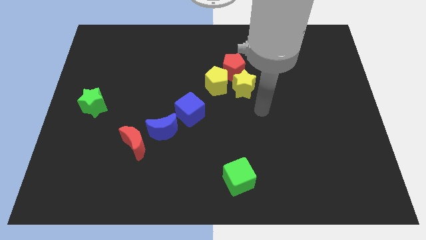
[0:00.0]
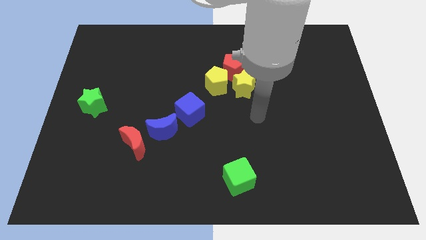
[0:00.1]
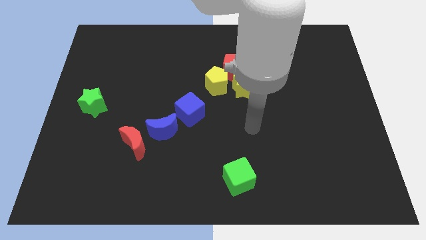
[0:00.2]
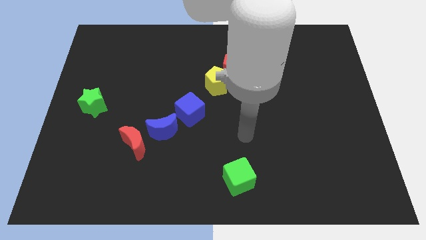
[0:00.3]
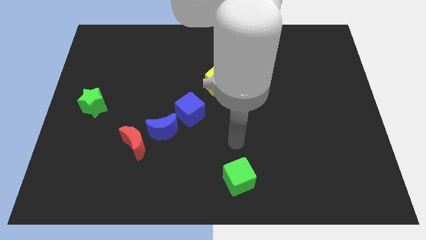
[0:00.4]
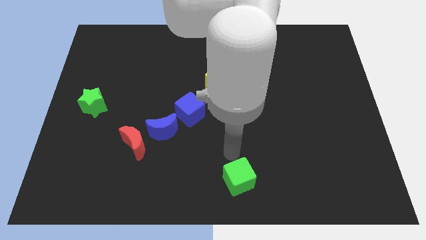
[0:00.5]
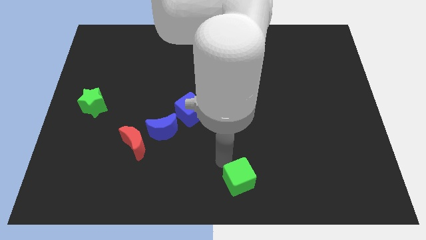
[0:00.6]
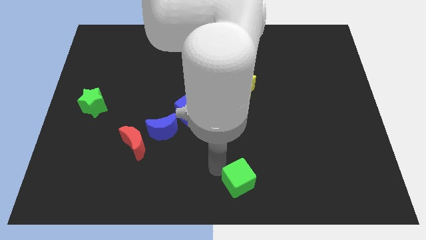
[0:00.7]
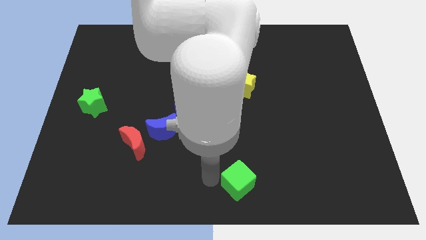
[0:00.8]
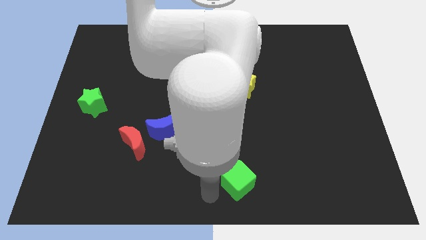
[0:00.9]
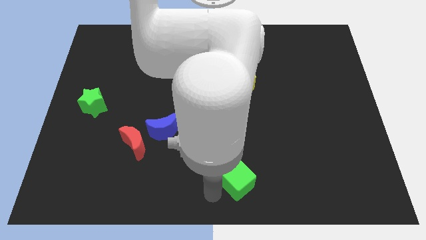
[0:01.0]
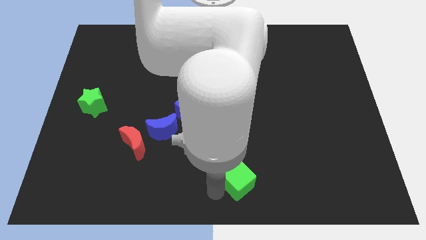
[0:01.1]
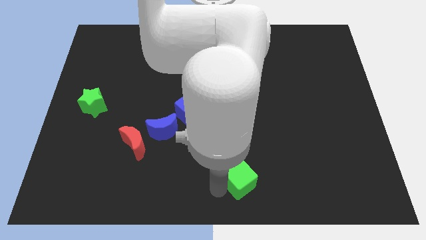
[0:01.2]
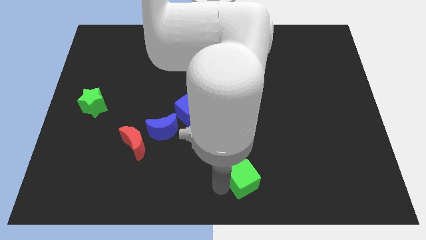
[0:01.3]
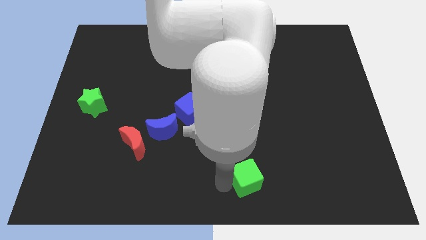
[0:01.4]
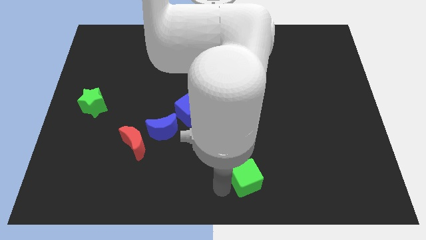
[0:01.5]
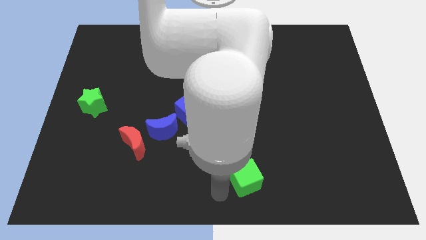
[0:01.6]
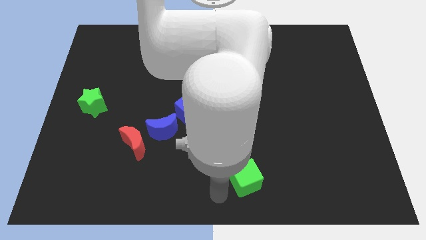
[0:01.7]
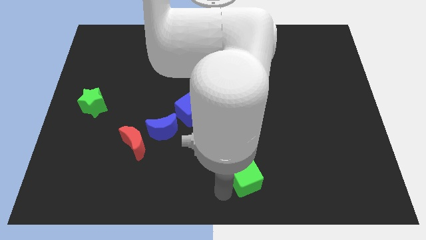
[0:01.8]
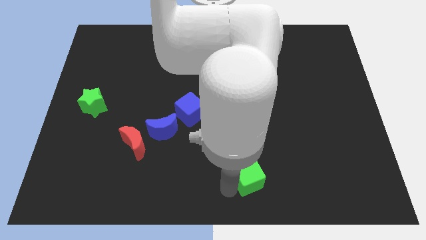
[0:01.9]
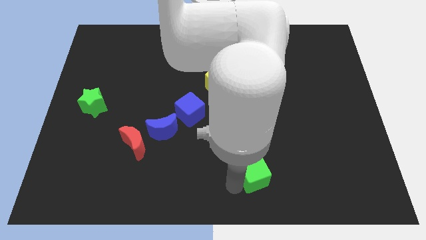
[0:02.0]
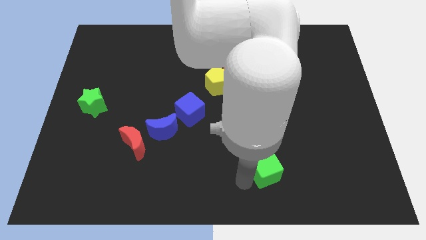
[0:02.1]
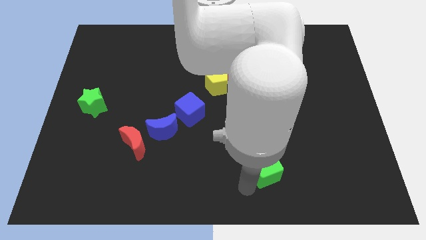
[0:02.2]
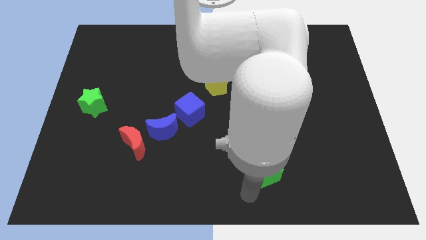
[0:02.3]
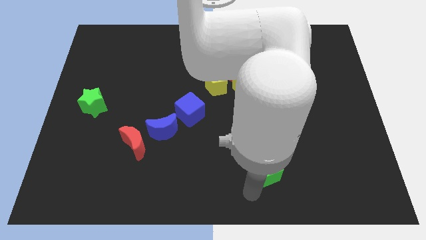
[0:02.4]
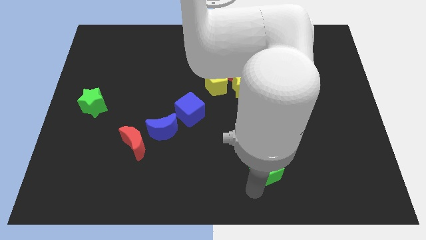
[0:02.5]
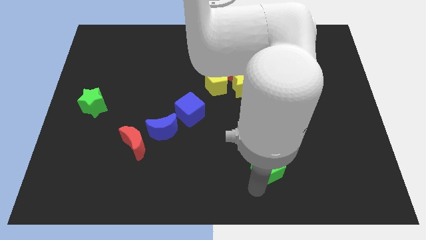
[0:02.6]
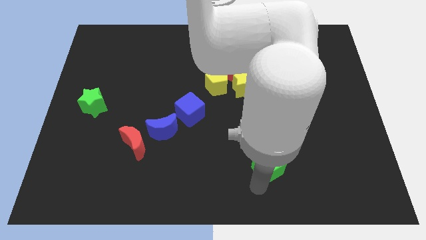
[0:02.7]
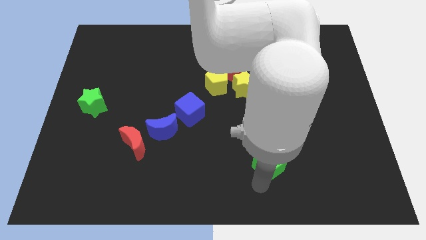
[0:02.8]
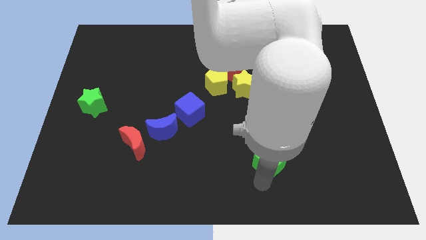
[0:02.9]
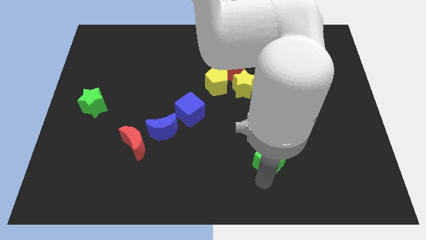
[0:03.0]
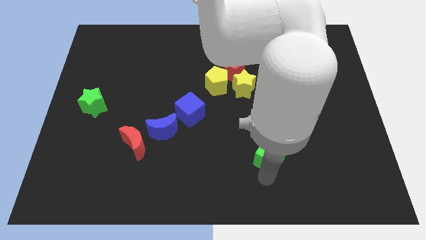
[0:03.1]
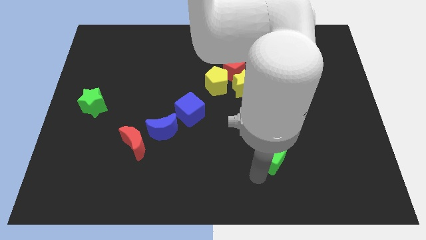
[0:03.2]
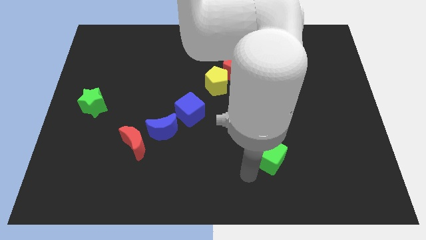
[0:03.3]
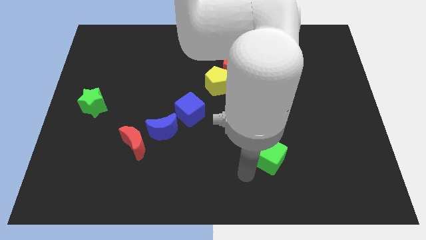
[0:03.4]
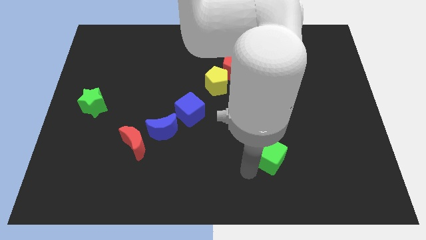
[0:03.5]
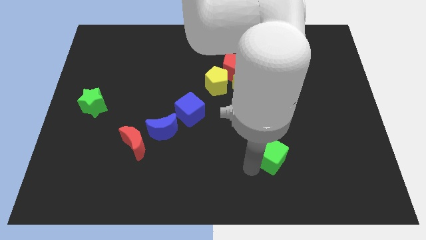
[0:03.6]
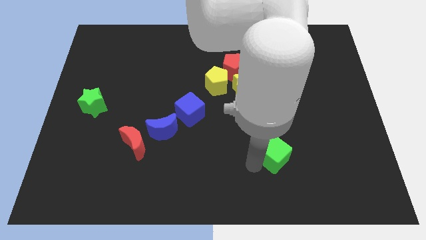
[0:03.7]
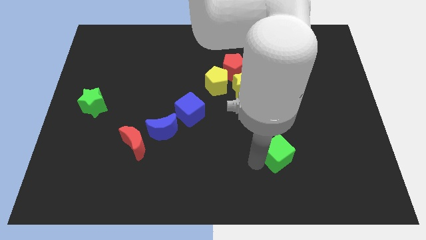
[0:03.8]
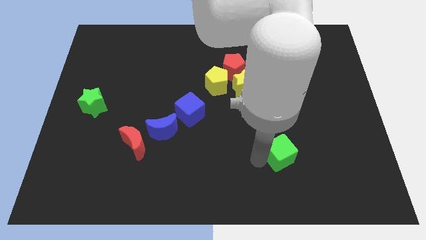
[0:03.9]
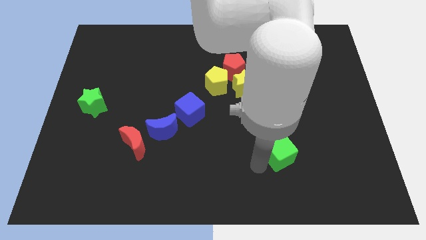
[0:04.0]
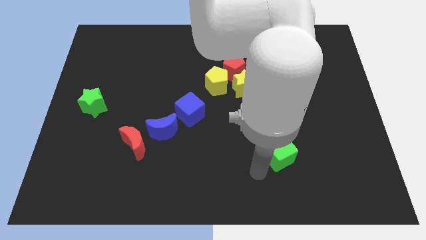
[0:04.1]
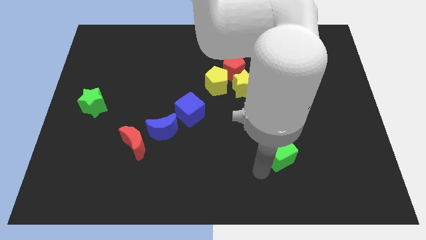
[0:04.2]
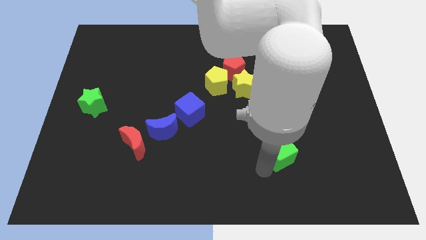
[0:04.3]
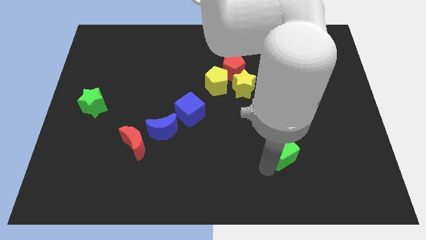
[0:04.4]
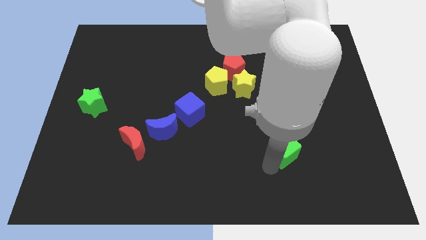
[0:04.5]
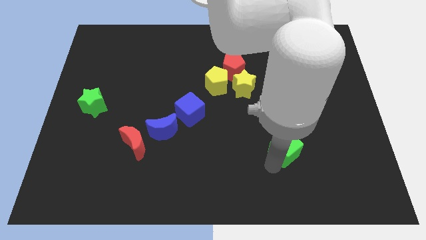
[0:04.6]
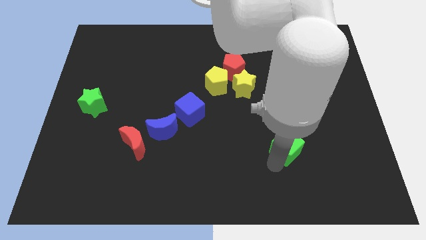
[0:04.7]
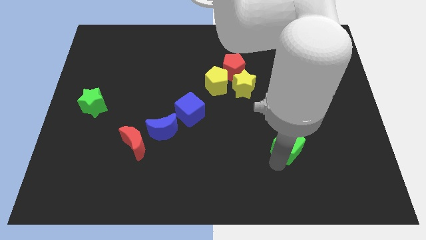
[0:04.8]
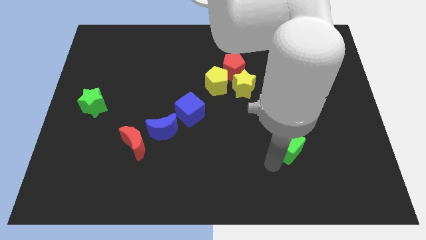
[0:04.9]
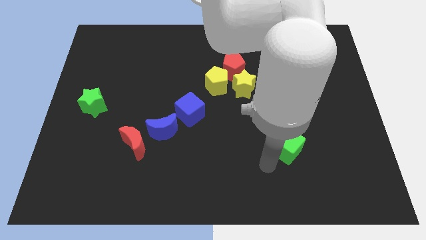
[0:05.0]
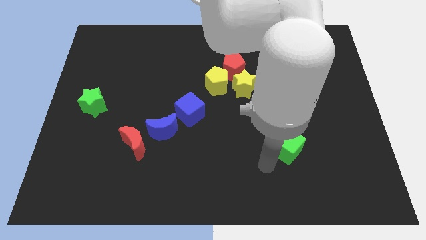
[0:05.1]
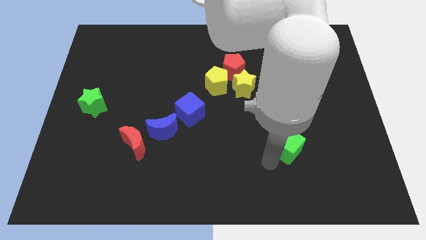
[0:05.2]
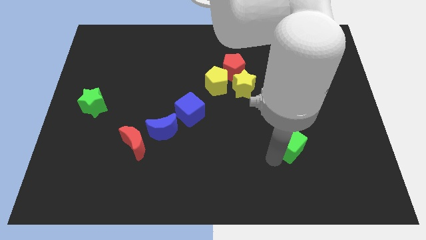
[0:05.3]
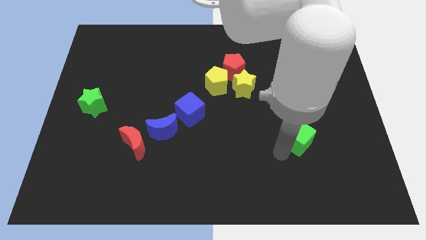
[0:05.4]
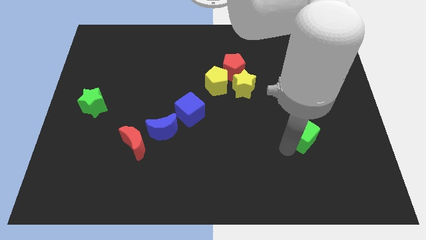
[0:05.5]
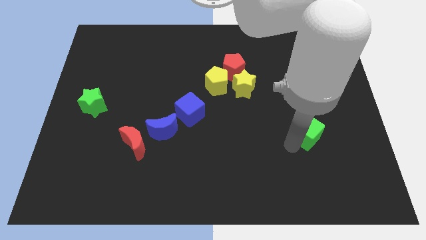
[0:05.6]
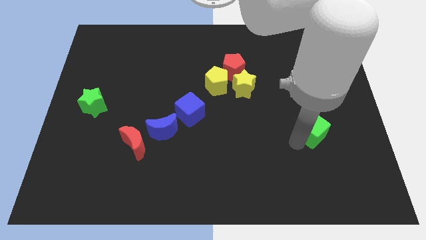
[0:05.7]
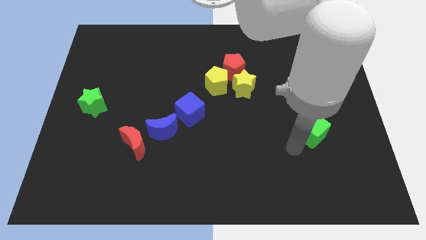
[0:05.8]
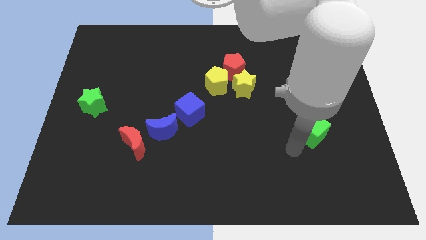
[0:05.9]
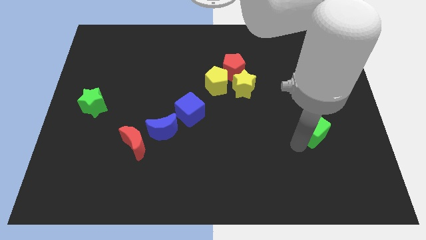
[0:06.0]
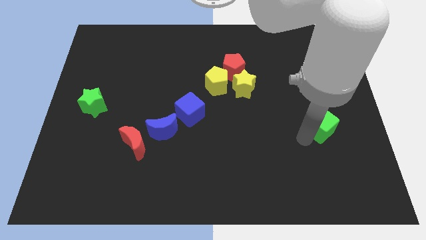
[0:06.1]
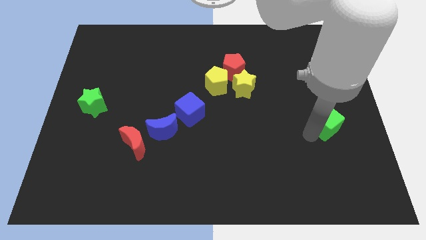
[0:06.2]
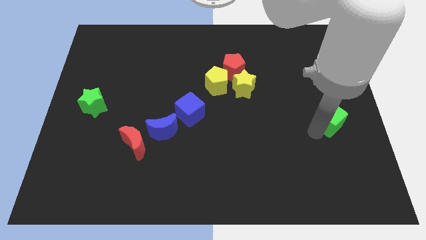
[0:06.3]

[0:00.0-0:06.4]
push the green cube to the right side of the board

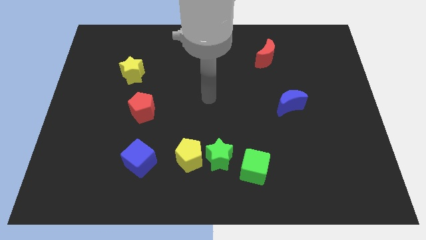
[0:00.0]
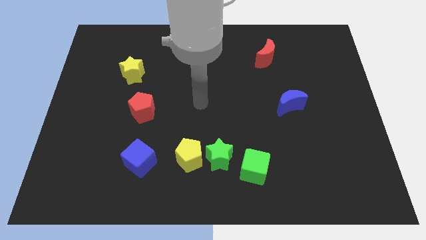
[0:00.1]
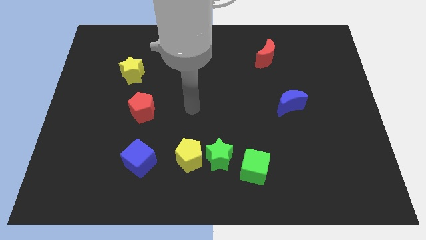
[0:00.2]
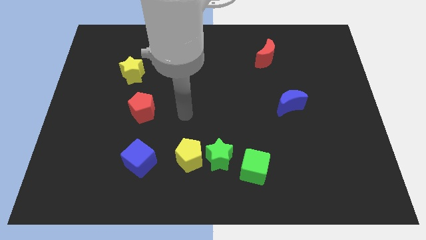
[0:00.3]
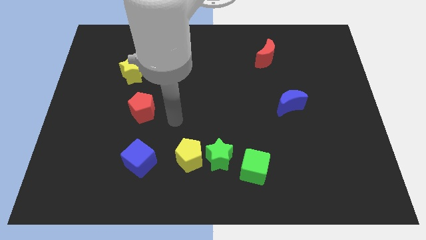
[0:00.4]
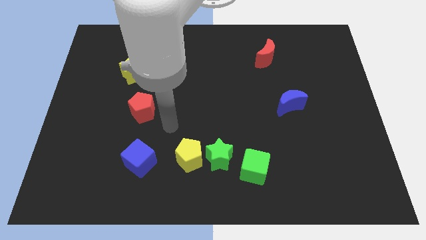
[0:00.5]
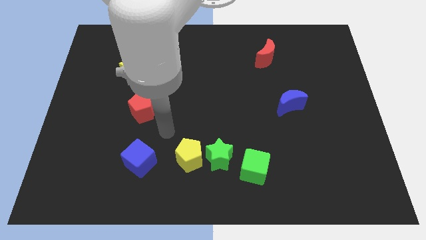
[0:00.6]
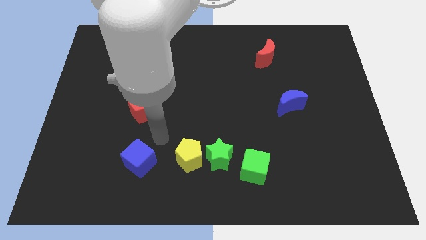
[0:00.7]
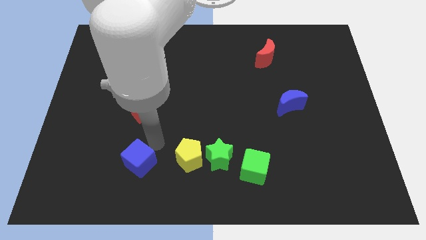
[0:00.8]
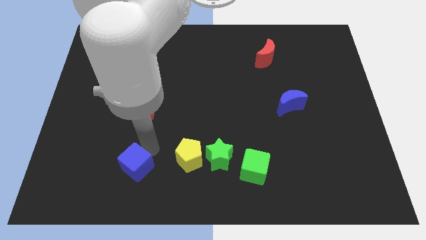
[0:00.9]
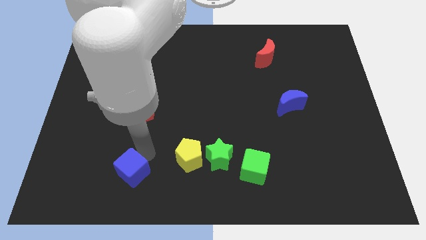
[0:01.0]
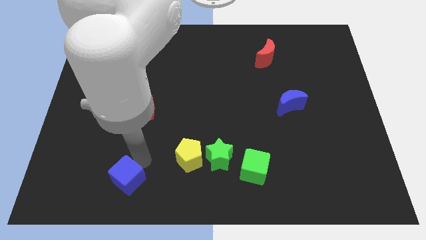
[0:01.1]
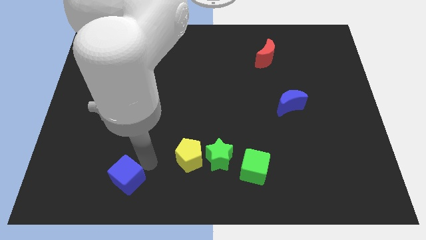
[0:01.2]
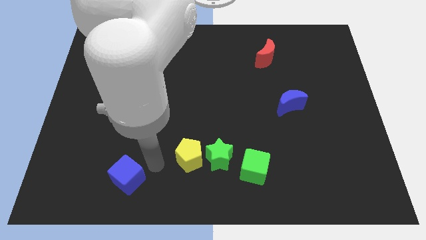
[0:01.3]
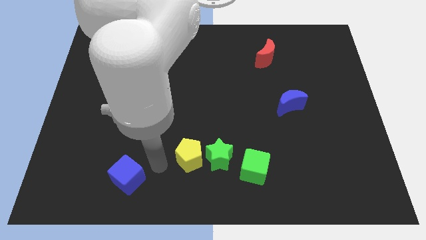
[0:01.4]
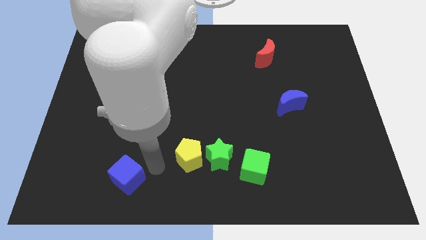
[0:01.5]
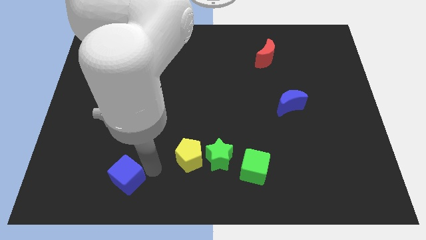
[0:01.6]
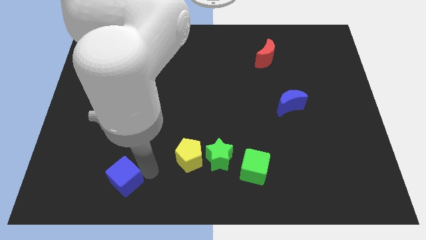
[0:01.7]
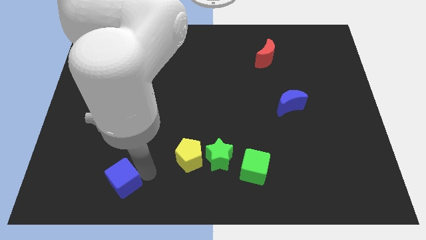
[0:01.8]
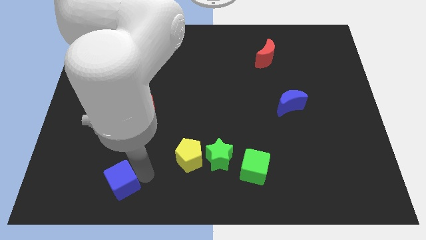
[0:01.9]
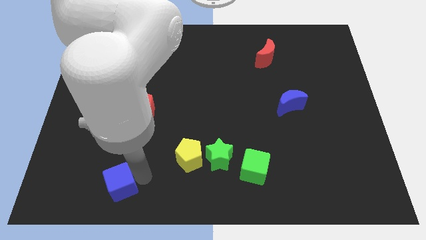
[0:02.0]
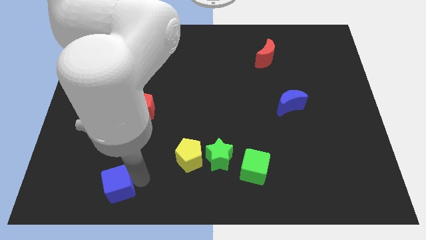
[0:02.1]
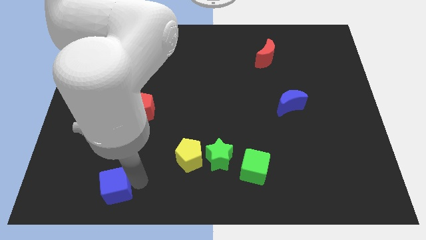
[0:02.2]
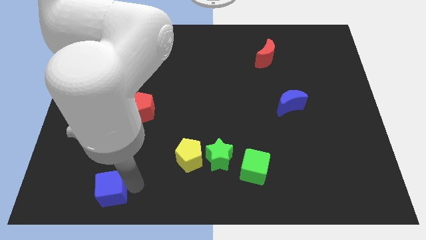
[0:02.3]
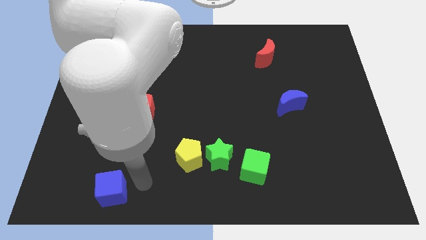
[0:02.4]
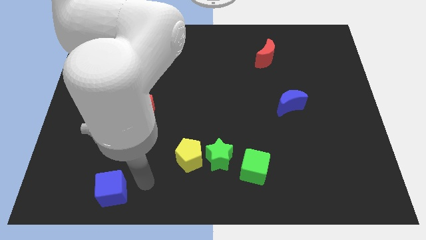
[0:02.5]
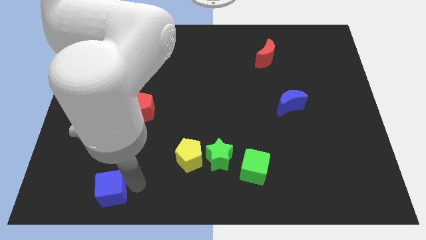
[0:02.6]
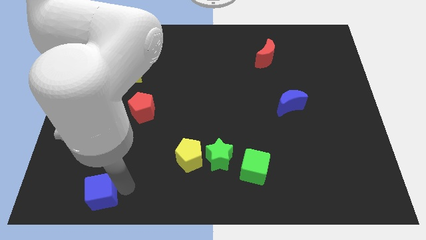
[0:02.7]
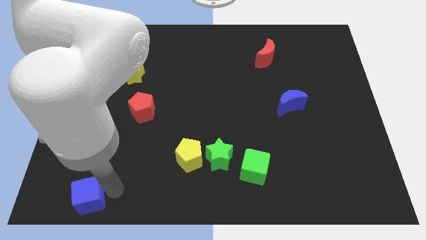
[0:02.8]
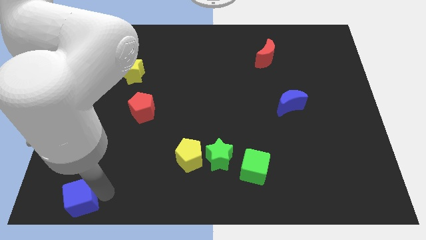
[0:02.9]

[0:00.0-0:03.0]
put the blue cube to the bottom left
